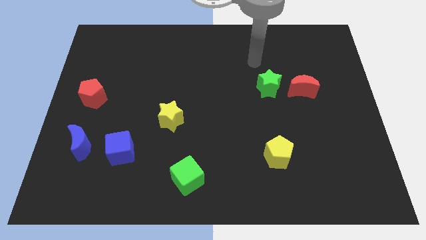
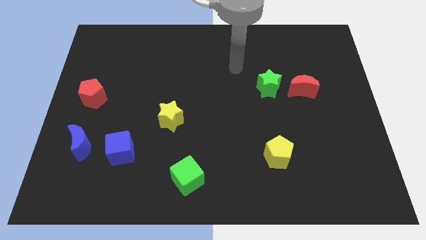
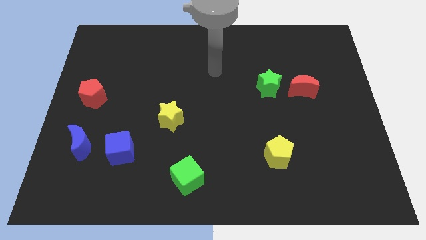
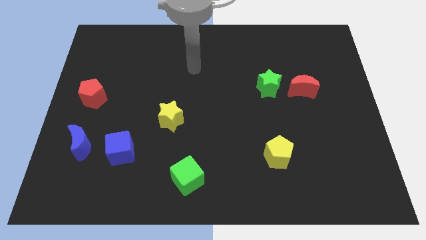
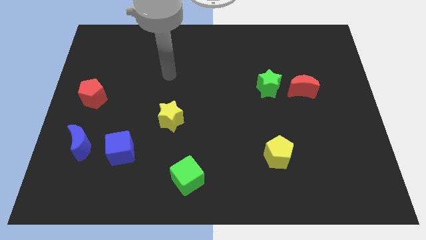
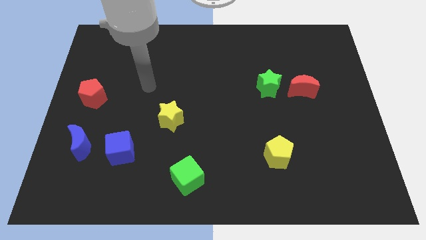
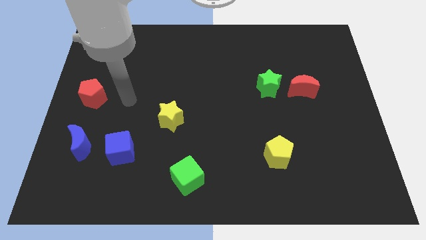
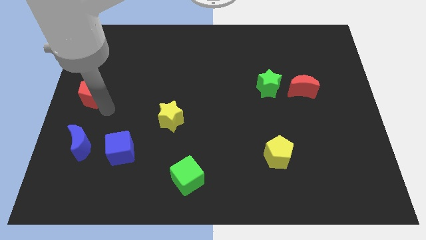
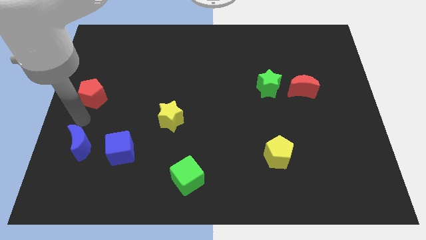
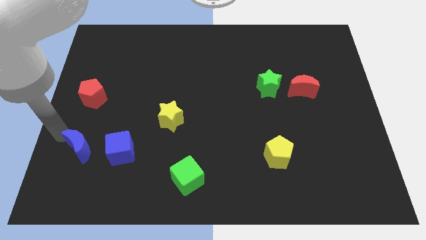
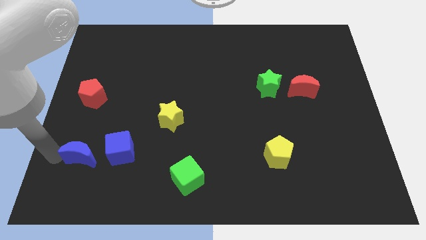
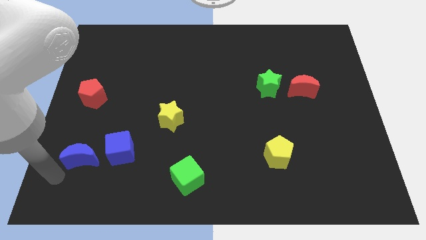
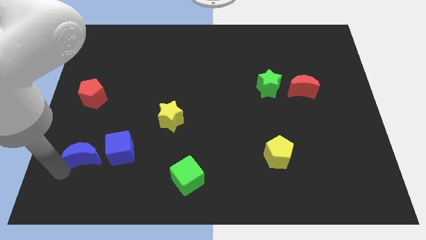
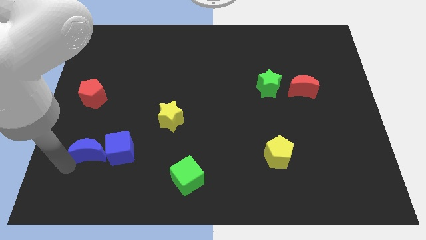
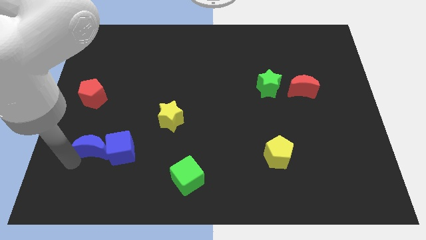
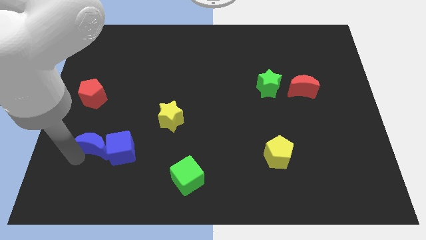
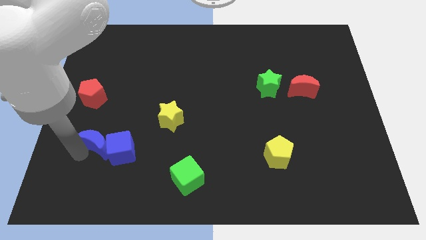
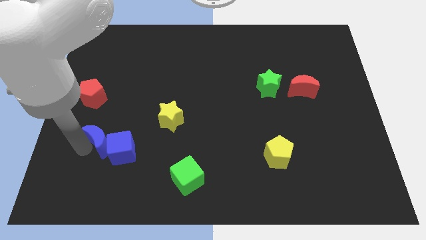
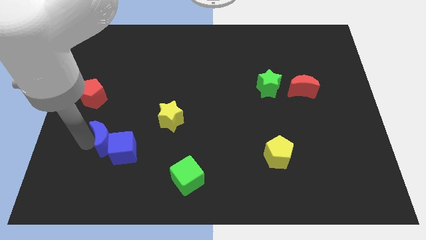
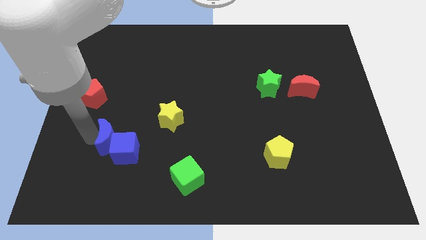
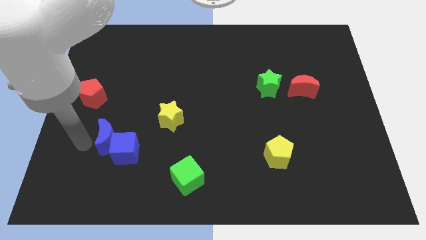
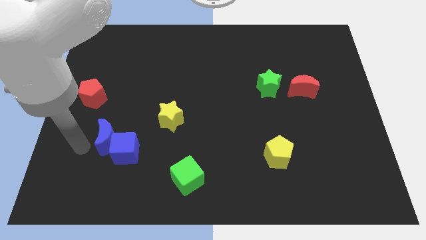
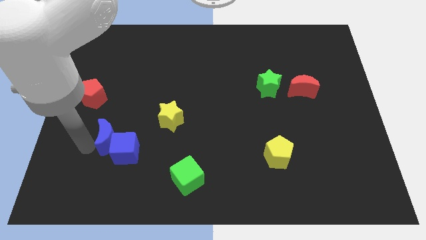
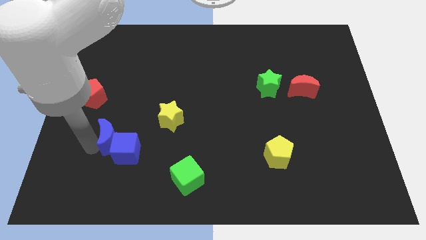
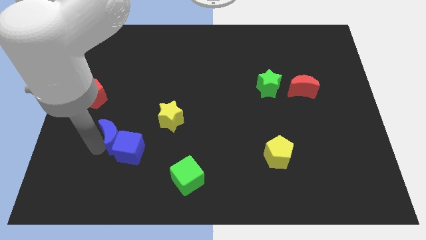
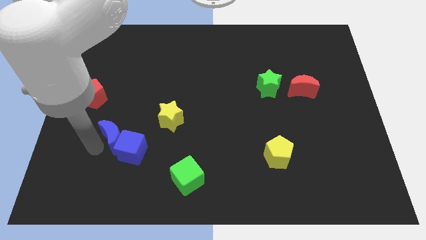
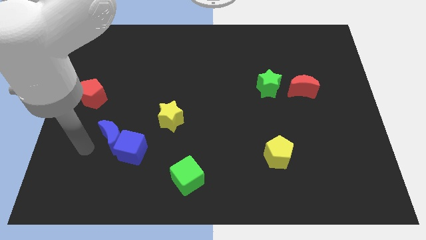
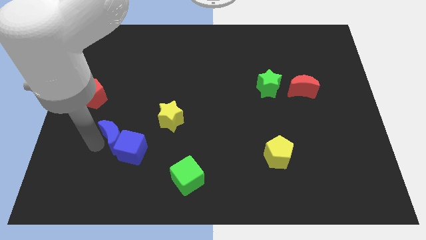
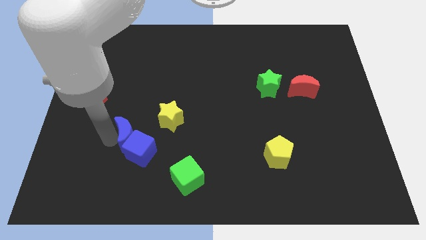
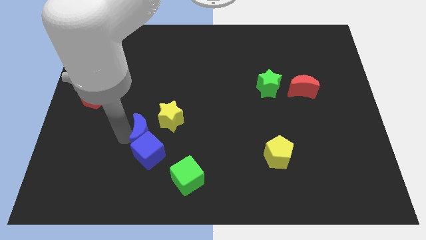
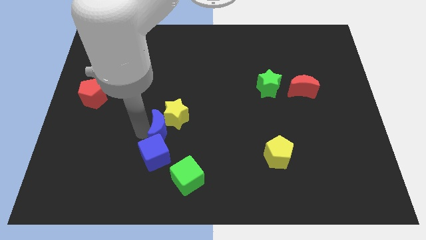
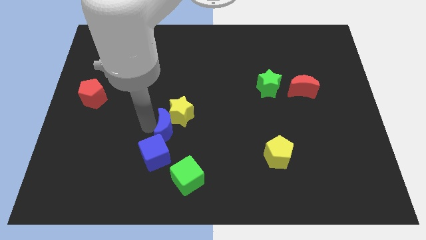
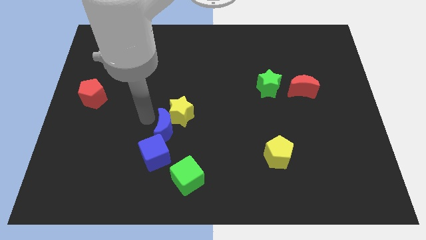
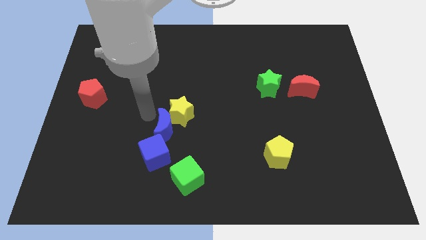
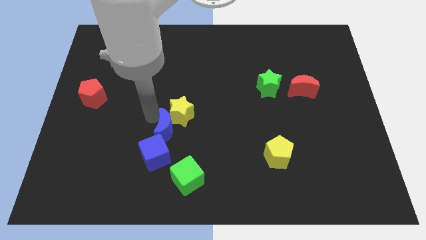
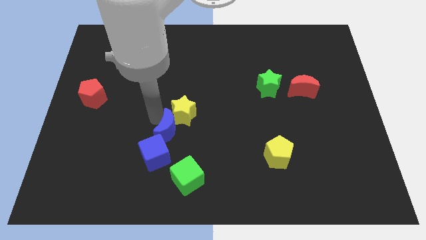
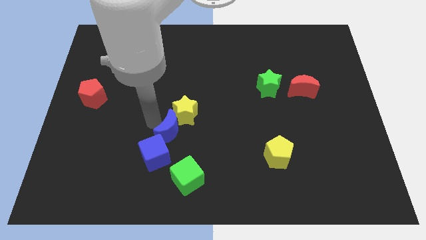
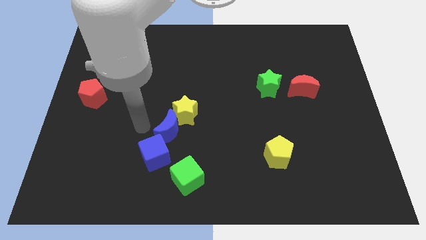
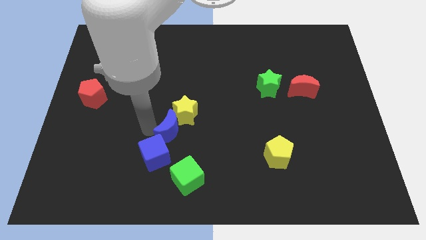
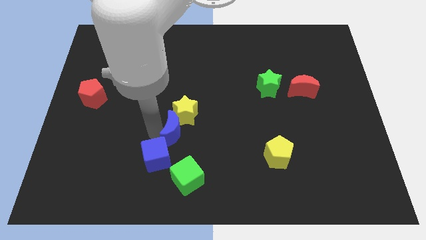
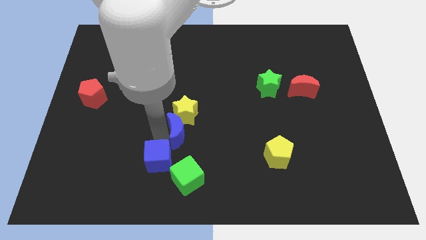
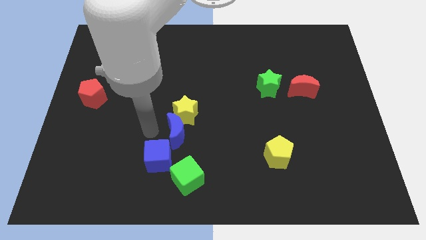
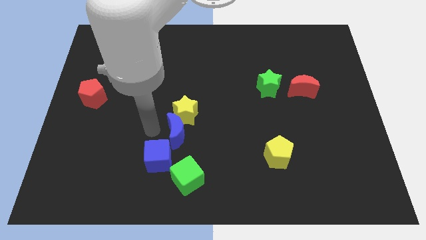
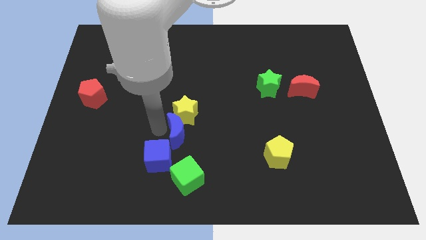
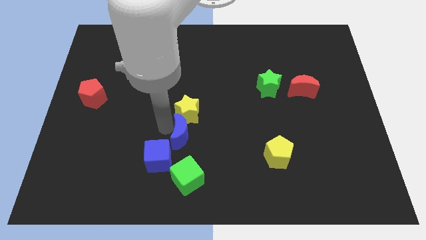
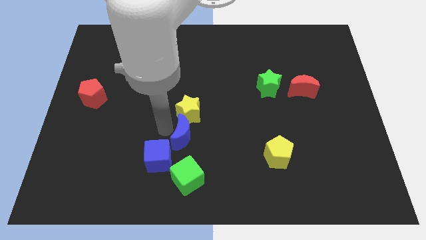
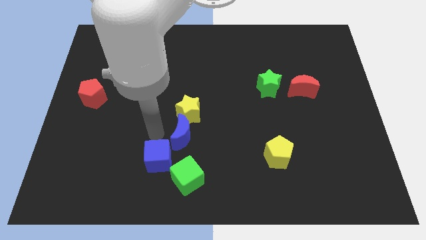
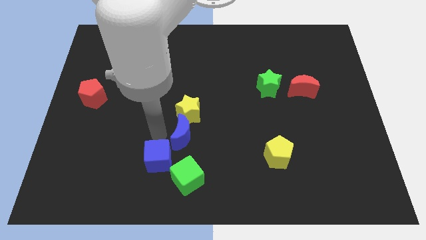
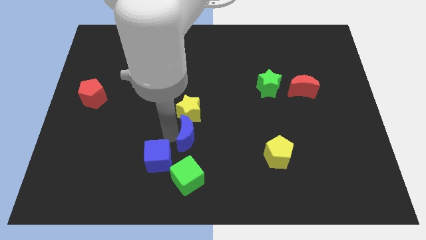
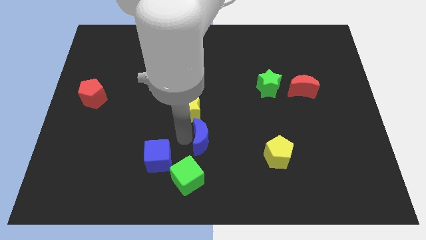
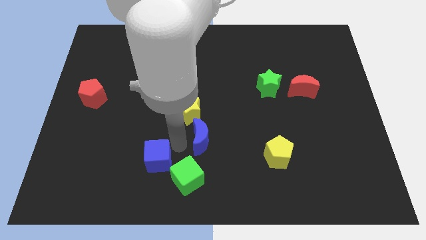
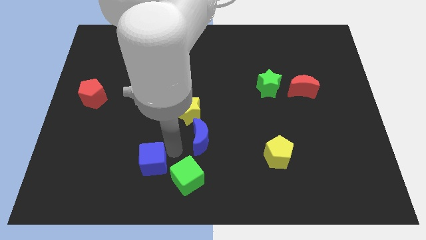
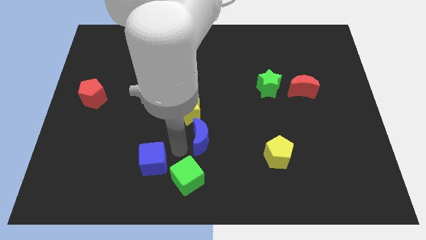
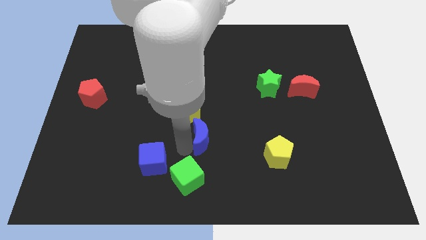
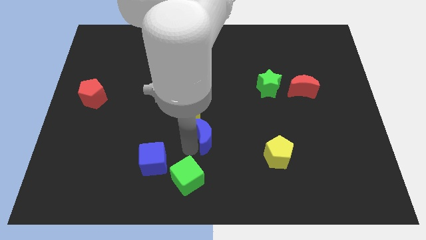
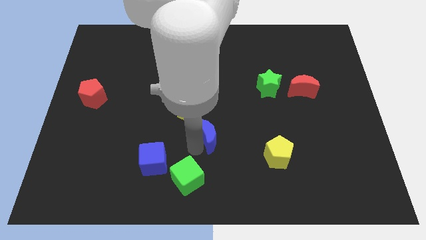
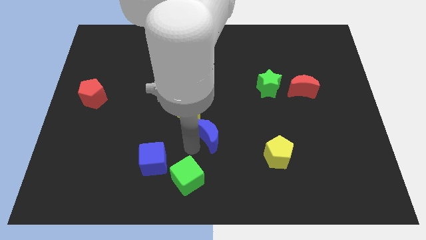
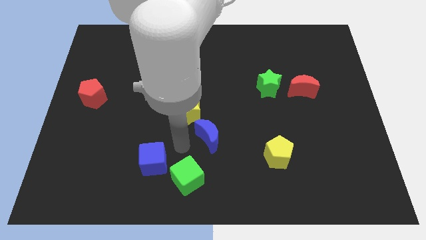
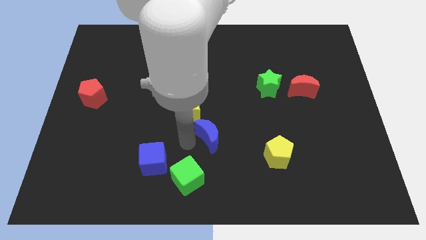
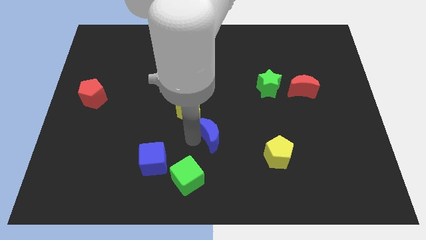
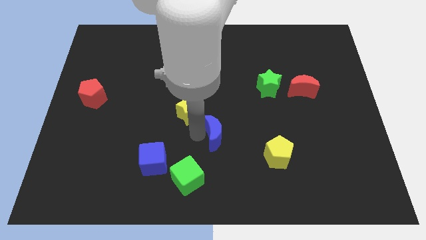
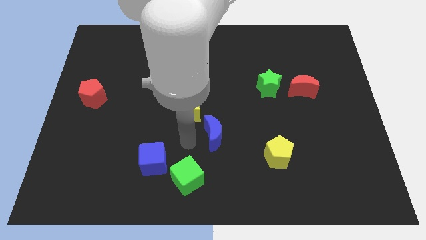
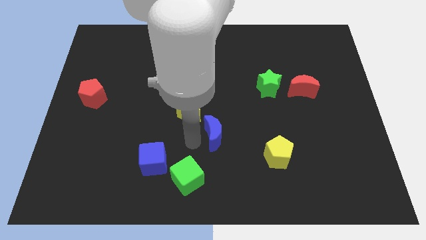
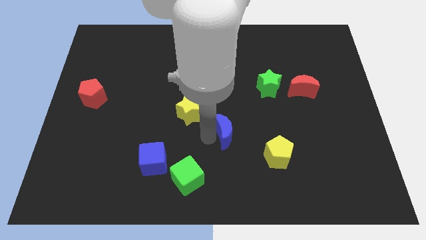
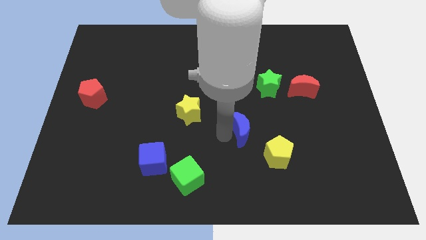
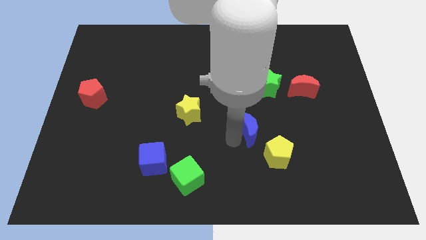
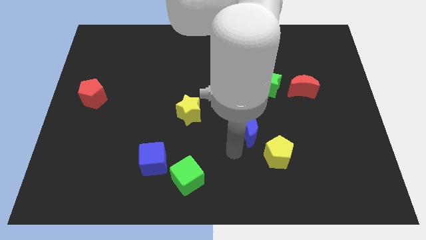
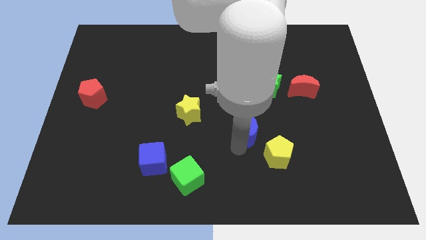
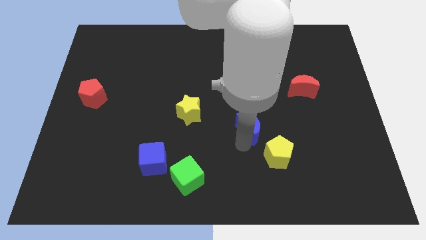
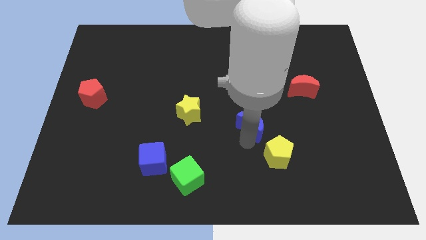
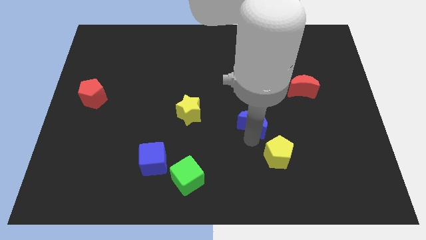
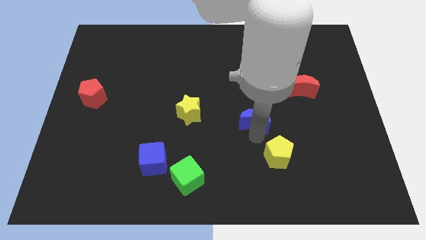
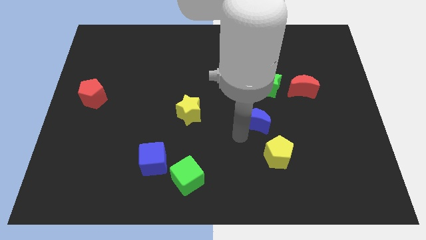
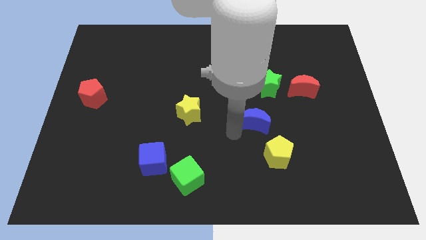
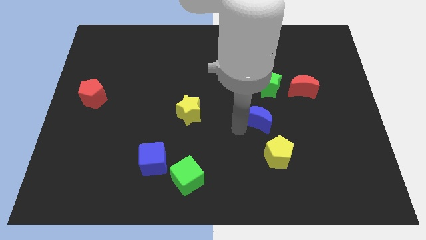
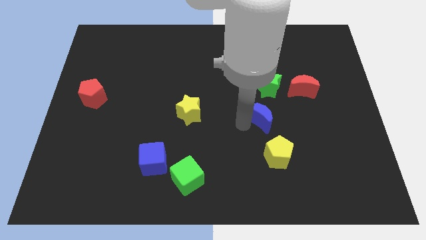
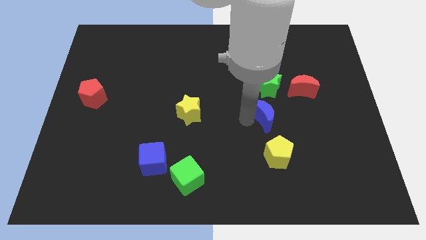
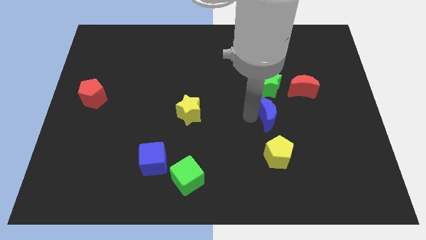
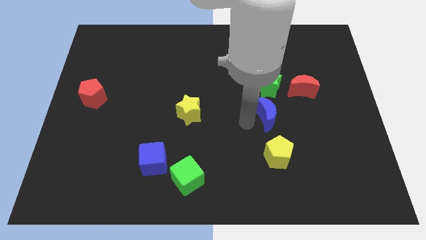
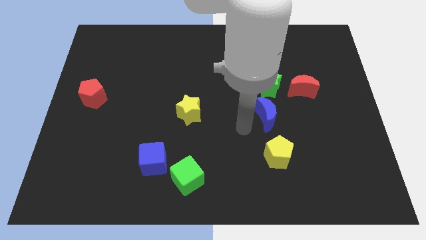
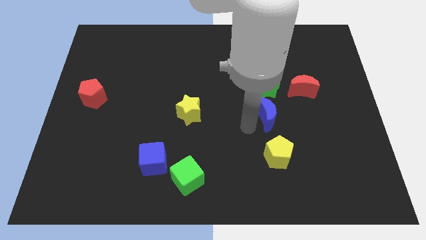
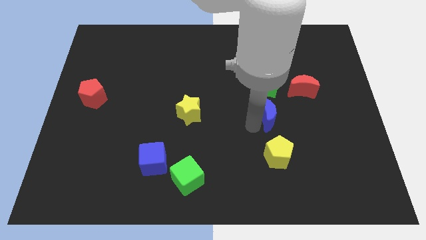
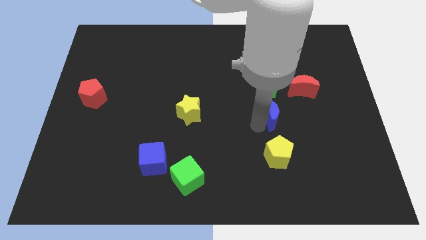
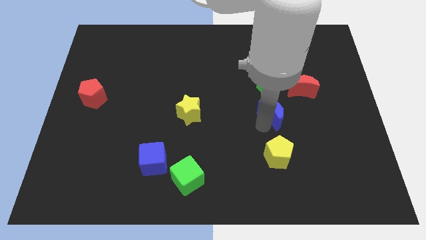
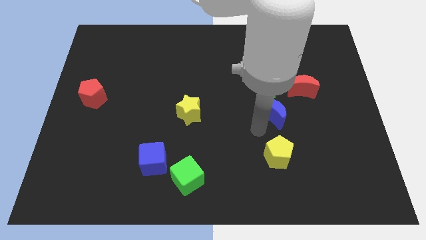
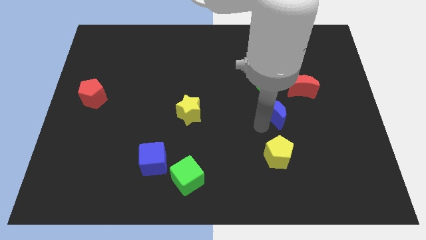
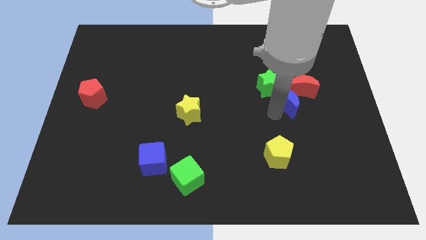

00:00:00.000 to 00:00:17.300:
move the blue moon towards the red moon
